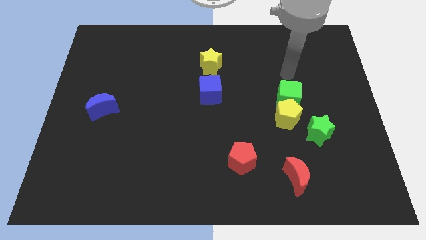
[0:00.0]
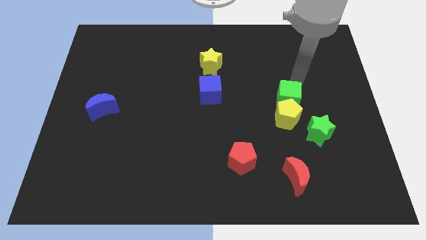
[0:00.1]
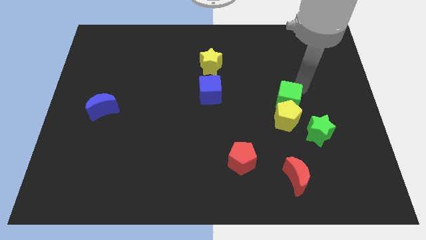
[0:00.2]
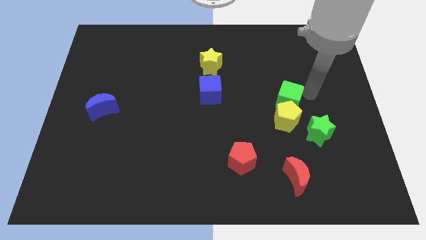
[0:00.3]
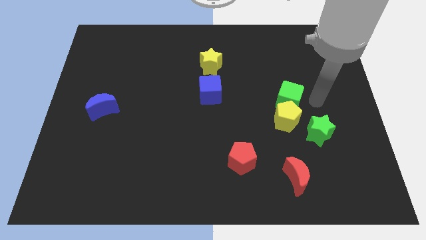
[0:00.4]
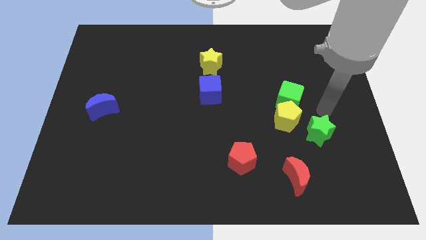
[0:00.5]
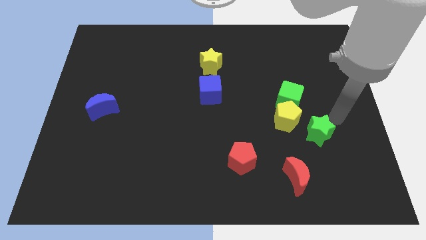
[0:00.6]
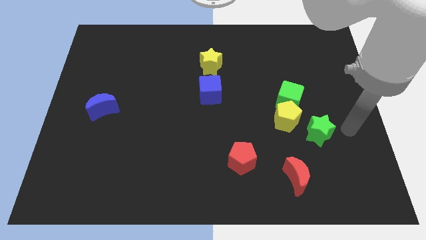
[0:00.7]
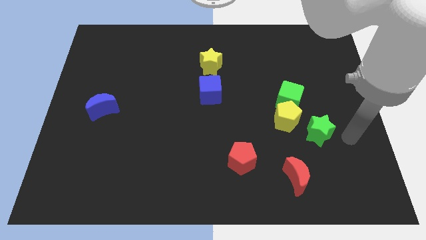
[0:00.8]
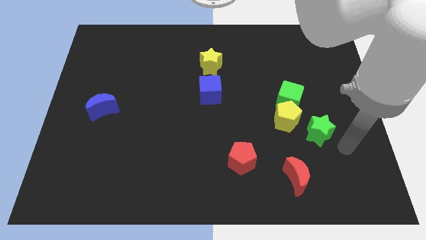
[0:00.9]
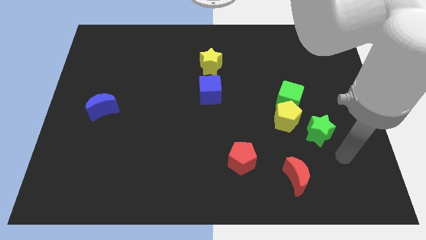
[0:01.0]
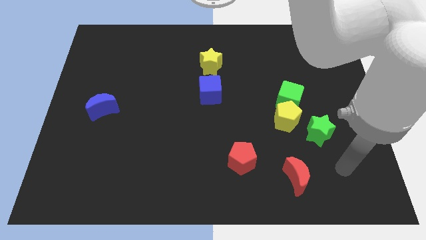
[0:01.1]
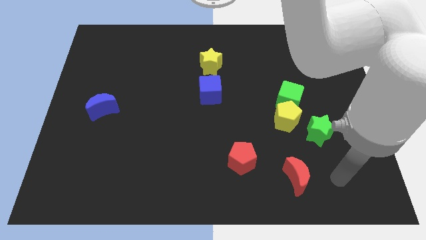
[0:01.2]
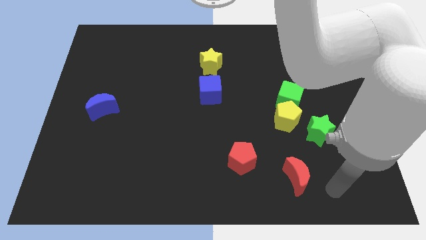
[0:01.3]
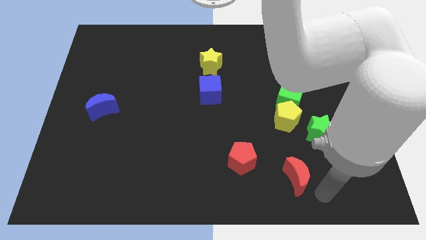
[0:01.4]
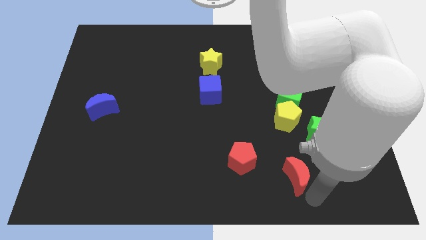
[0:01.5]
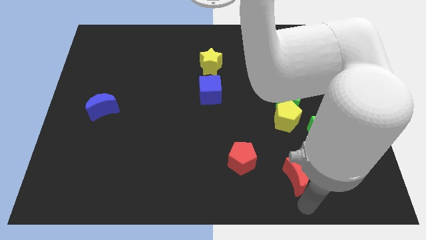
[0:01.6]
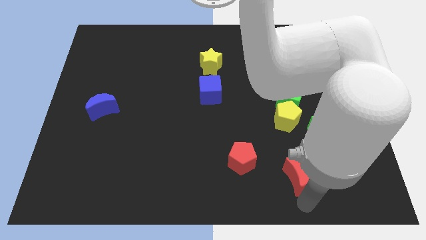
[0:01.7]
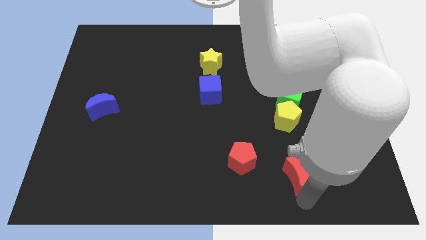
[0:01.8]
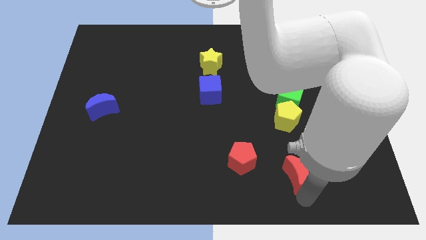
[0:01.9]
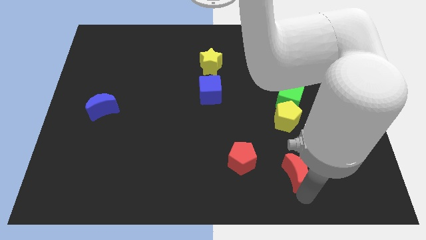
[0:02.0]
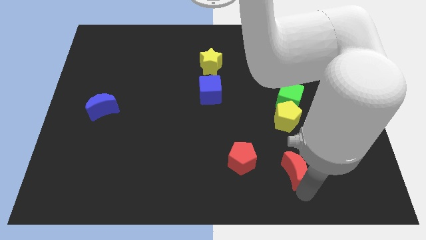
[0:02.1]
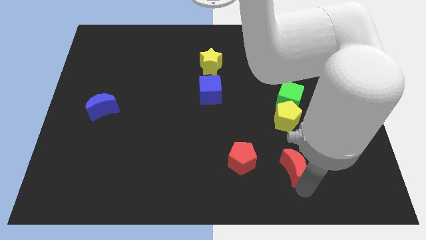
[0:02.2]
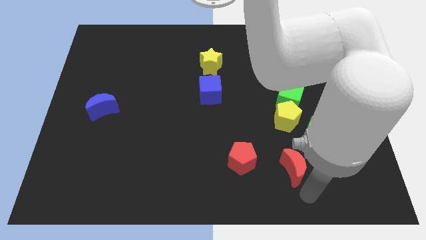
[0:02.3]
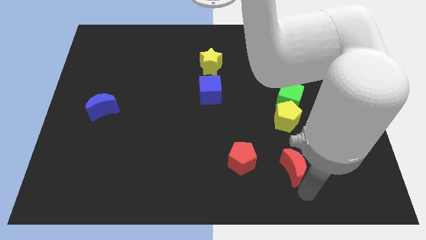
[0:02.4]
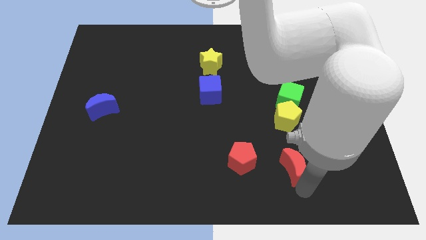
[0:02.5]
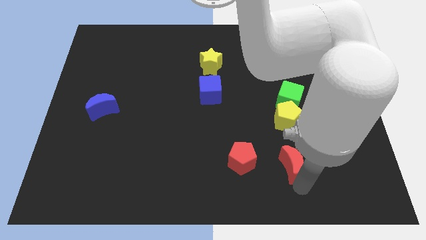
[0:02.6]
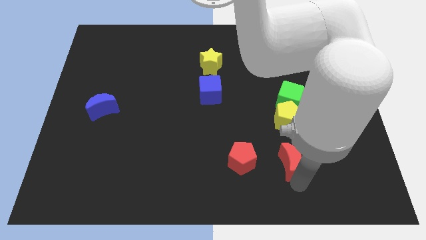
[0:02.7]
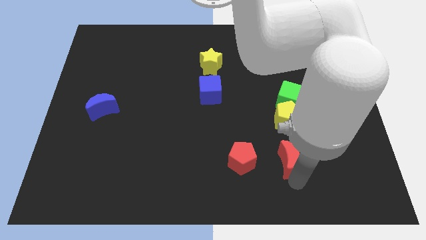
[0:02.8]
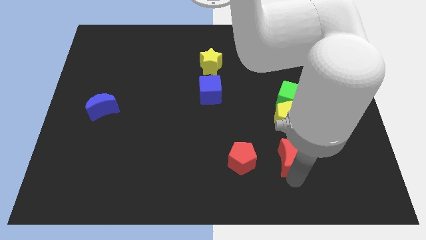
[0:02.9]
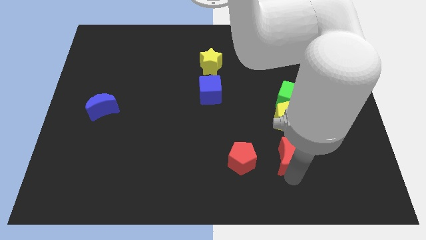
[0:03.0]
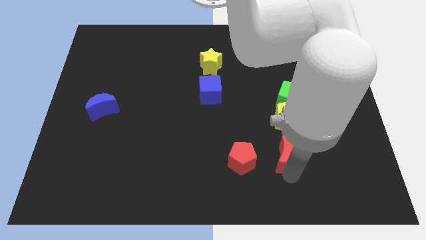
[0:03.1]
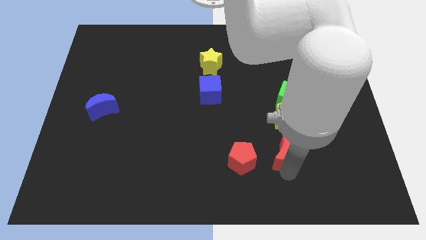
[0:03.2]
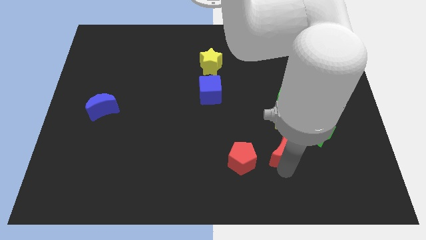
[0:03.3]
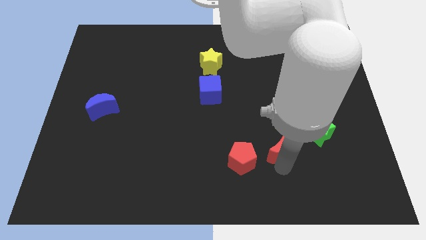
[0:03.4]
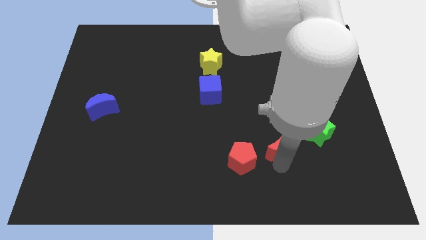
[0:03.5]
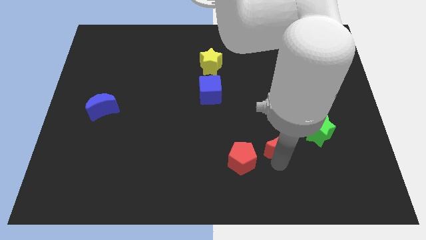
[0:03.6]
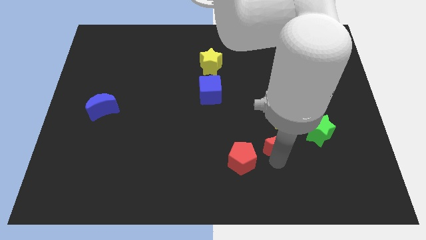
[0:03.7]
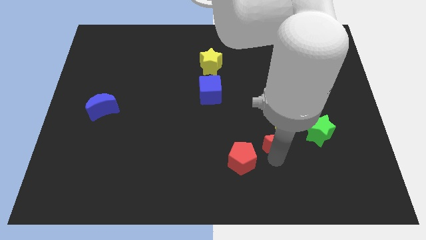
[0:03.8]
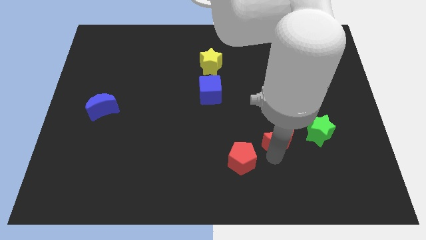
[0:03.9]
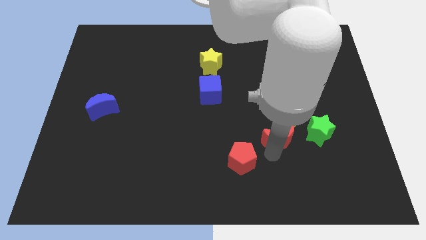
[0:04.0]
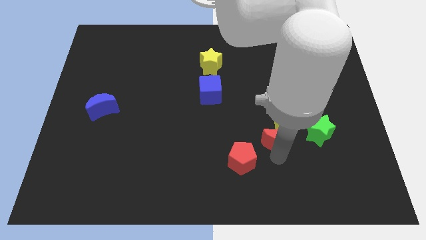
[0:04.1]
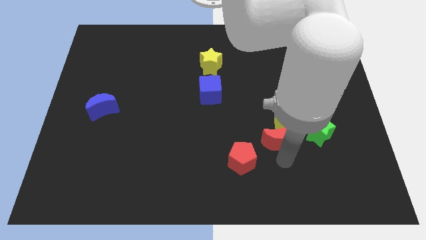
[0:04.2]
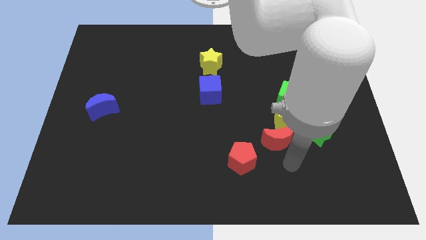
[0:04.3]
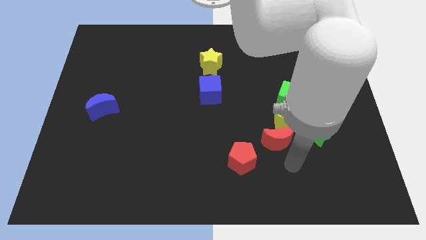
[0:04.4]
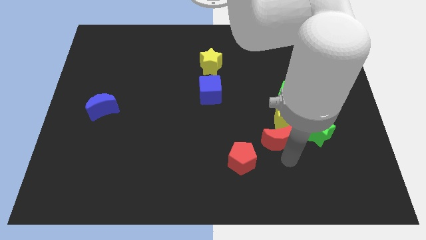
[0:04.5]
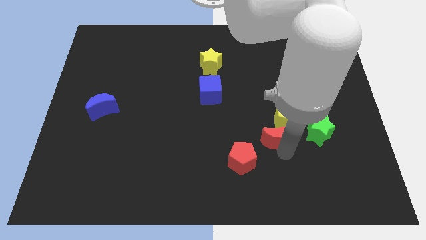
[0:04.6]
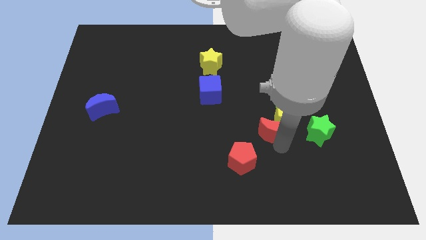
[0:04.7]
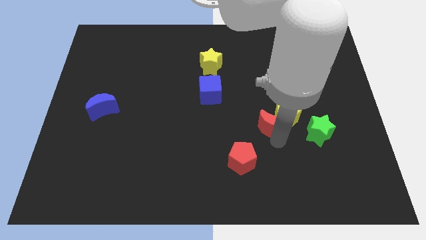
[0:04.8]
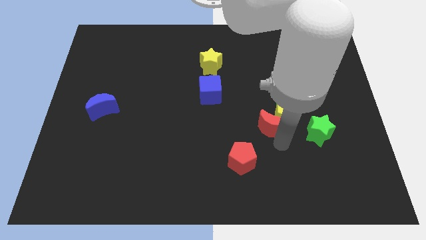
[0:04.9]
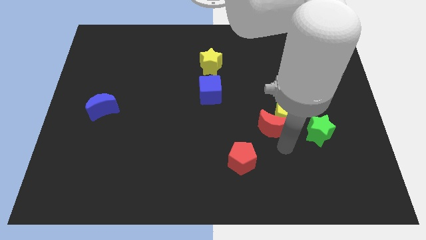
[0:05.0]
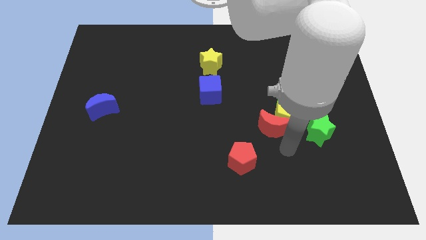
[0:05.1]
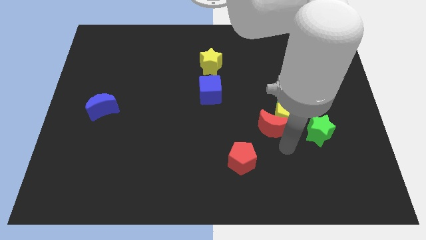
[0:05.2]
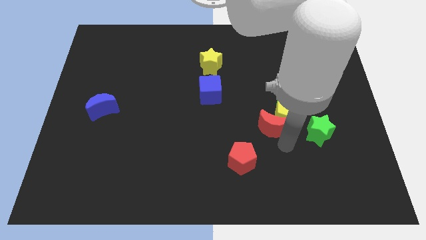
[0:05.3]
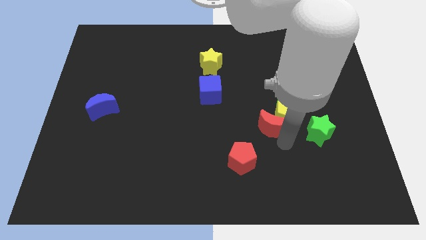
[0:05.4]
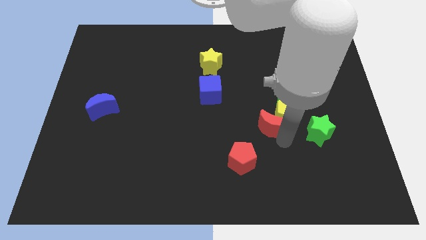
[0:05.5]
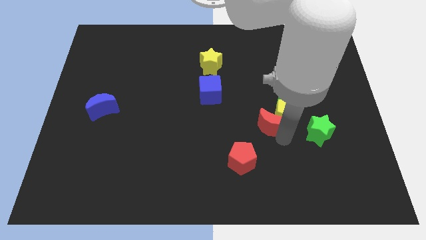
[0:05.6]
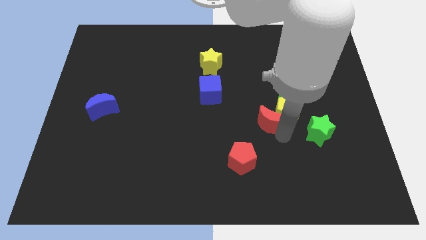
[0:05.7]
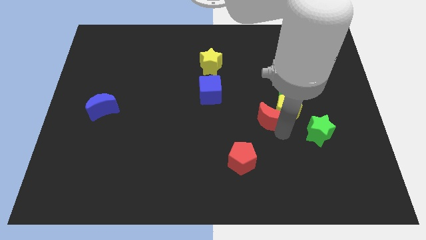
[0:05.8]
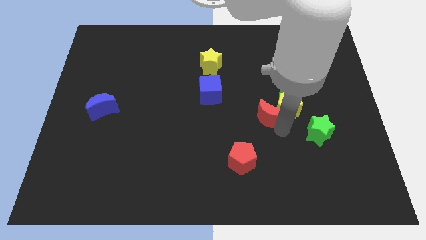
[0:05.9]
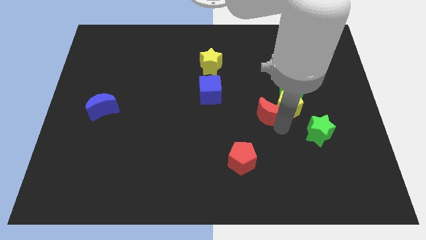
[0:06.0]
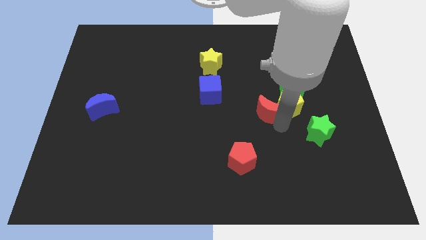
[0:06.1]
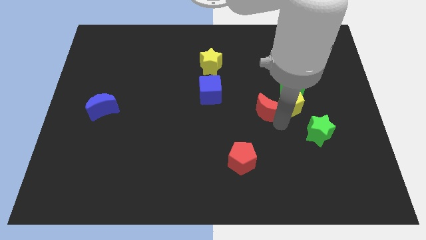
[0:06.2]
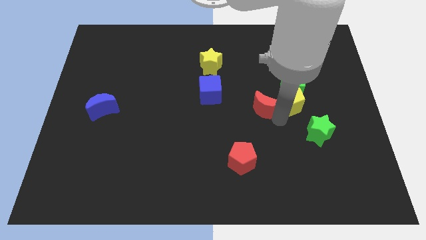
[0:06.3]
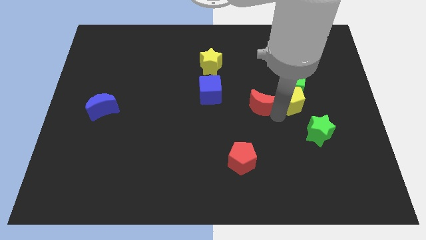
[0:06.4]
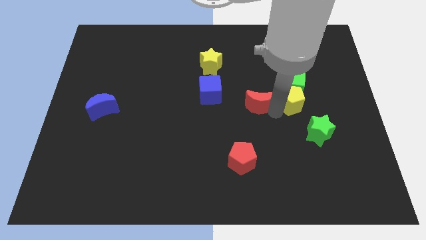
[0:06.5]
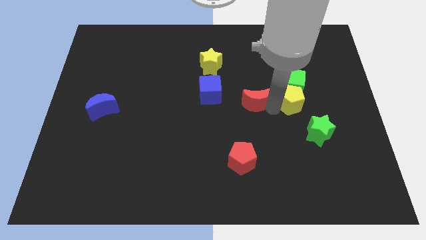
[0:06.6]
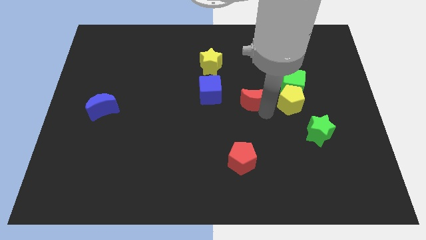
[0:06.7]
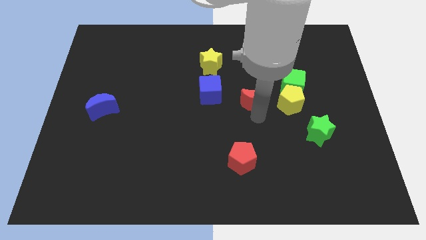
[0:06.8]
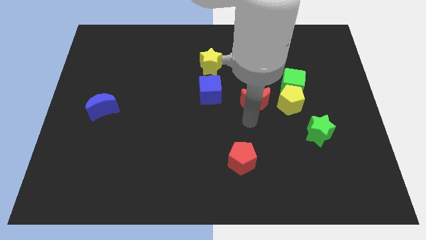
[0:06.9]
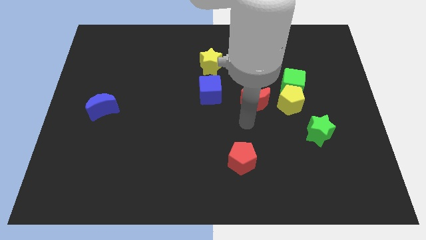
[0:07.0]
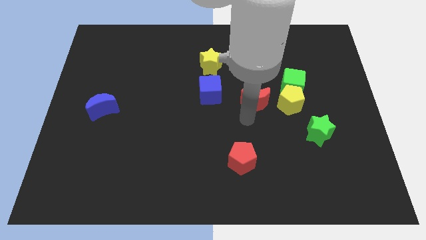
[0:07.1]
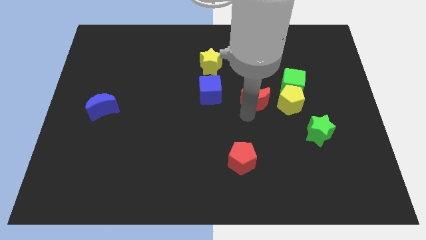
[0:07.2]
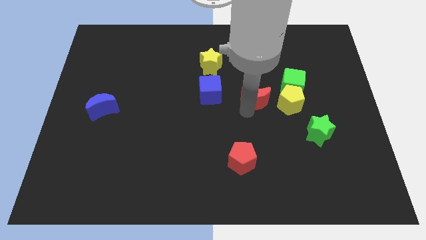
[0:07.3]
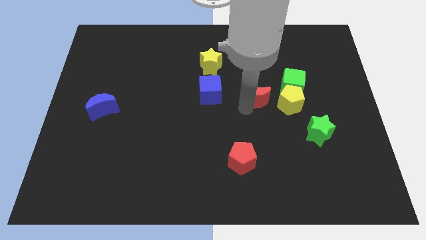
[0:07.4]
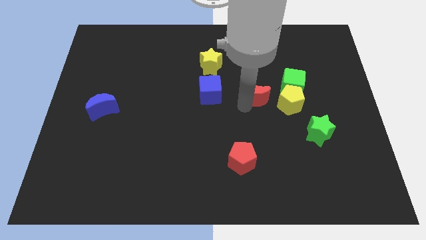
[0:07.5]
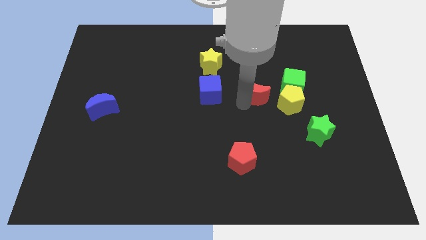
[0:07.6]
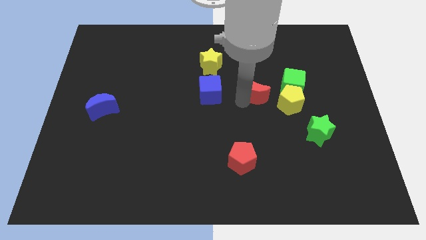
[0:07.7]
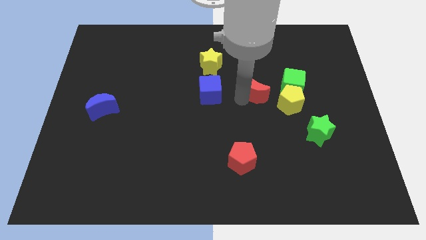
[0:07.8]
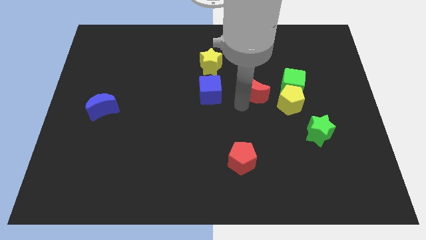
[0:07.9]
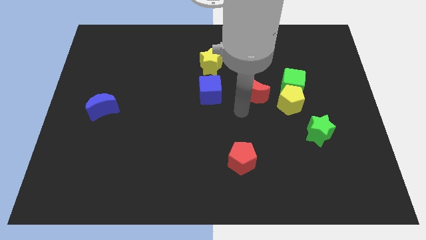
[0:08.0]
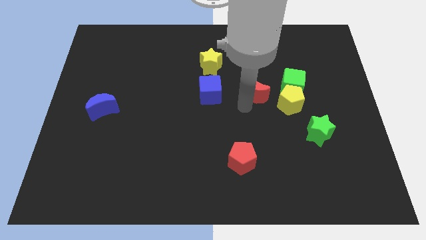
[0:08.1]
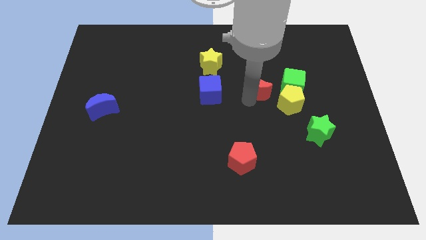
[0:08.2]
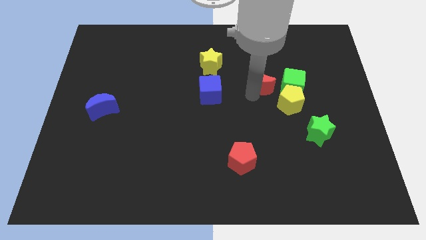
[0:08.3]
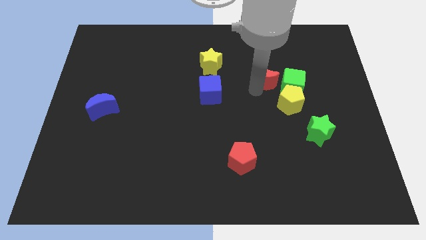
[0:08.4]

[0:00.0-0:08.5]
move the red moon diagonally up and to the left of the green cube
